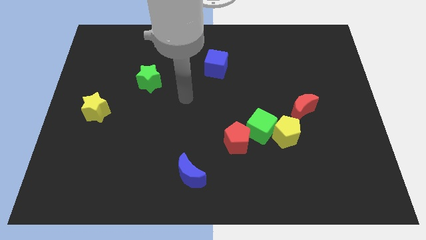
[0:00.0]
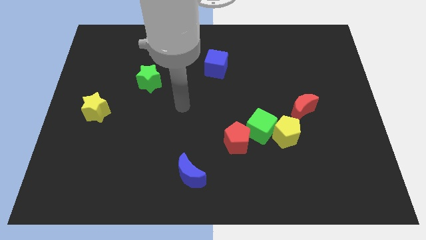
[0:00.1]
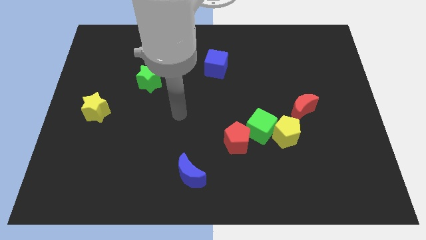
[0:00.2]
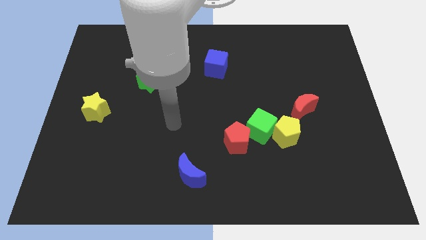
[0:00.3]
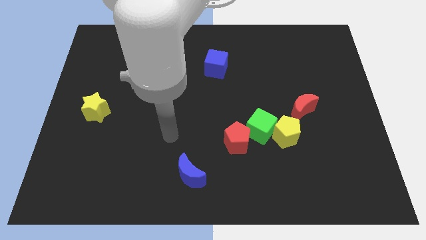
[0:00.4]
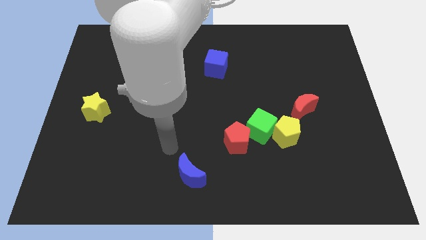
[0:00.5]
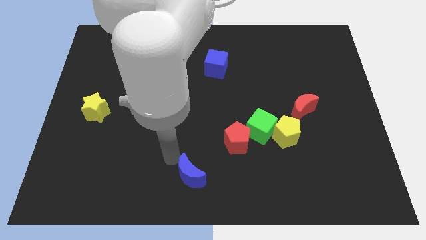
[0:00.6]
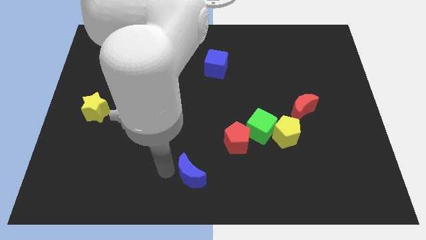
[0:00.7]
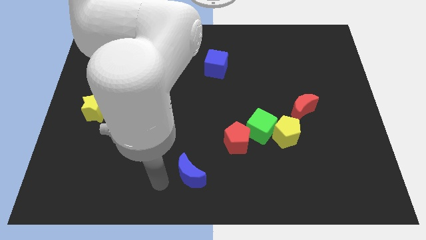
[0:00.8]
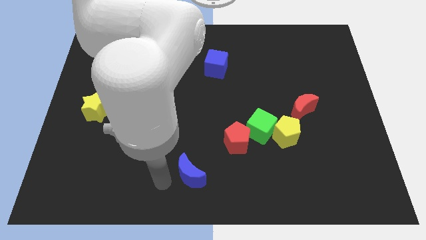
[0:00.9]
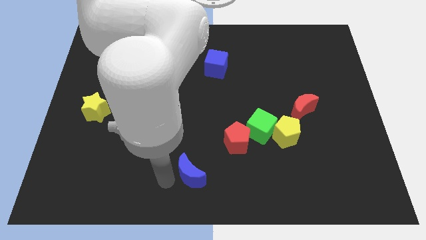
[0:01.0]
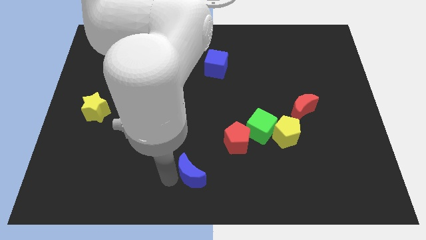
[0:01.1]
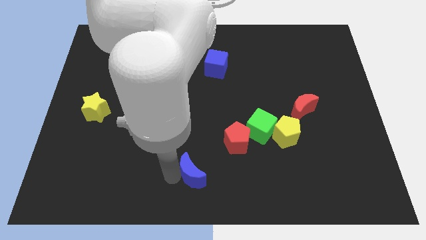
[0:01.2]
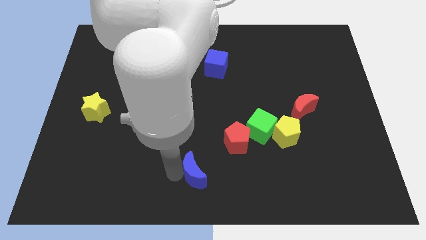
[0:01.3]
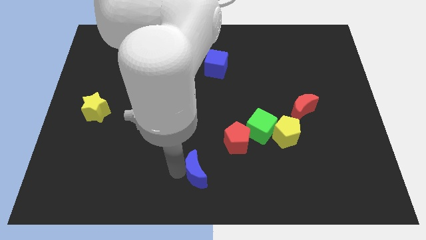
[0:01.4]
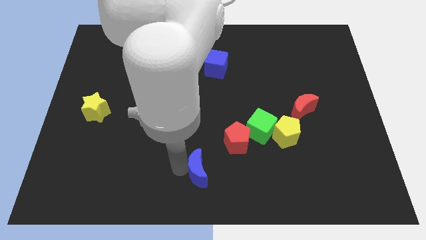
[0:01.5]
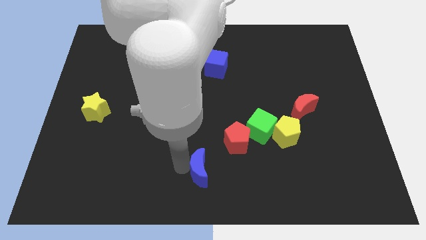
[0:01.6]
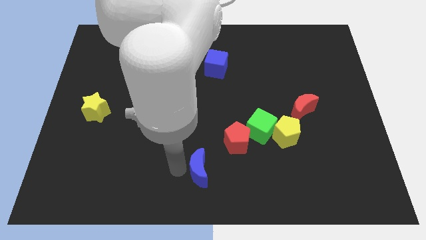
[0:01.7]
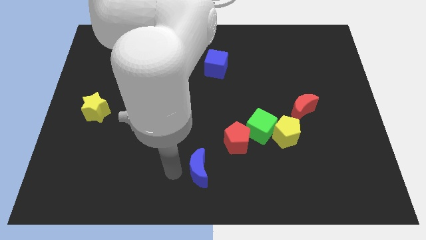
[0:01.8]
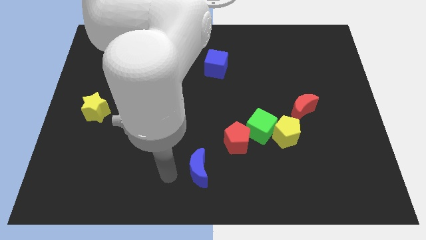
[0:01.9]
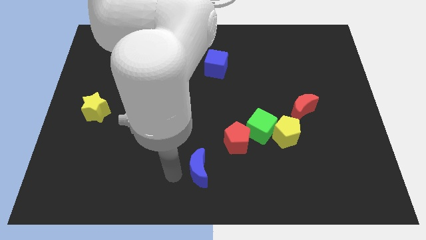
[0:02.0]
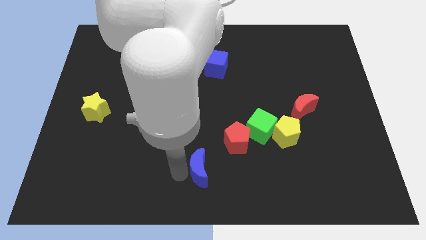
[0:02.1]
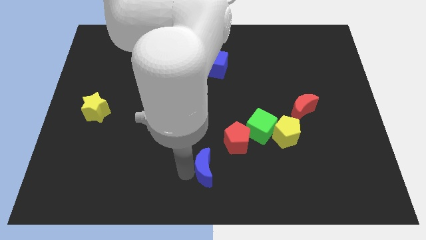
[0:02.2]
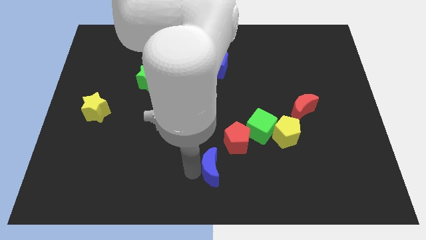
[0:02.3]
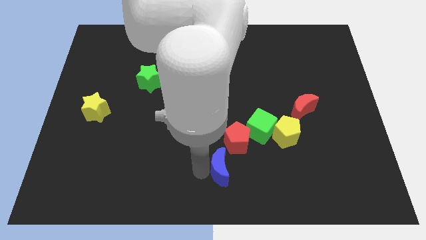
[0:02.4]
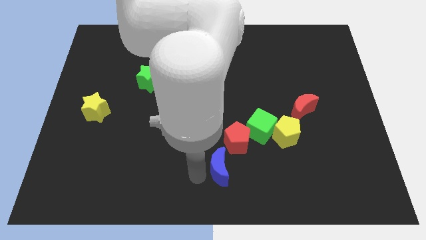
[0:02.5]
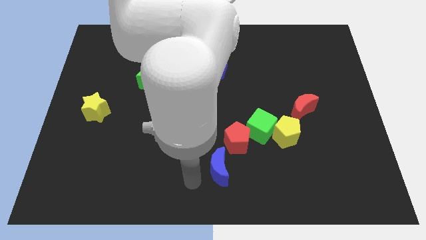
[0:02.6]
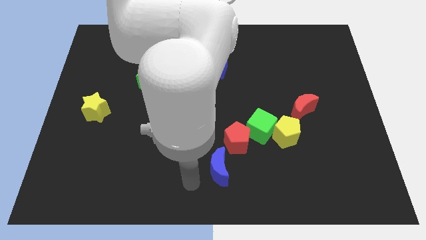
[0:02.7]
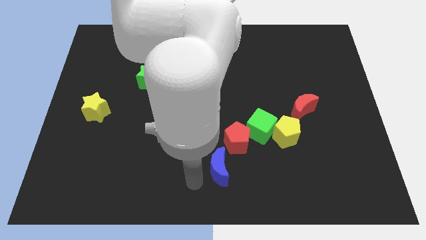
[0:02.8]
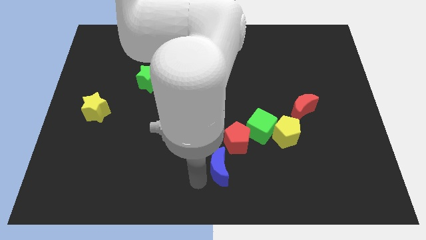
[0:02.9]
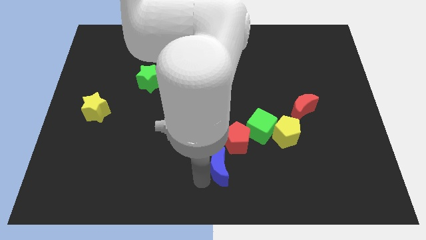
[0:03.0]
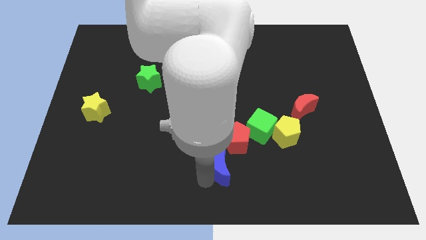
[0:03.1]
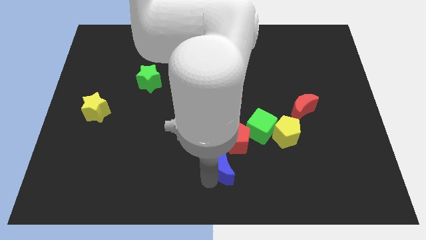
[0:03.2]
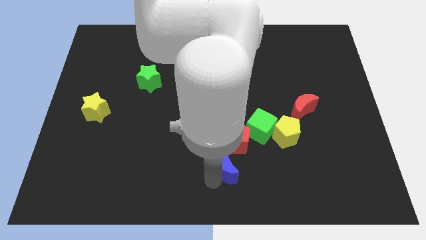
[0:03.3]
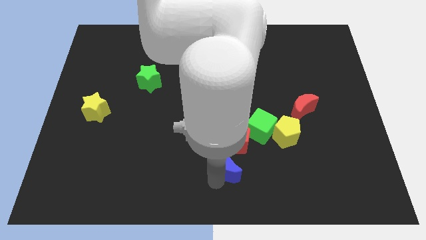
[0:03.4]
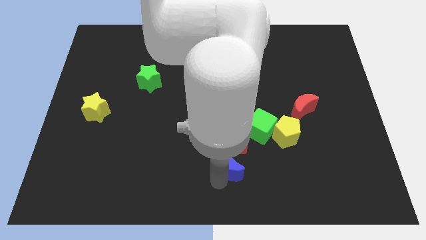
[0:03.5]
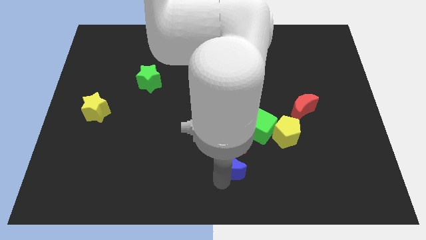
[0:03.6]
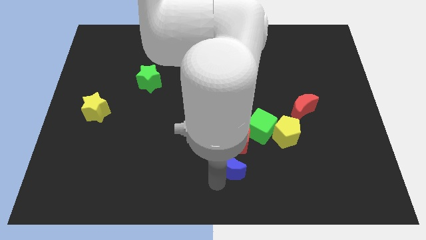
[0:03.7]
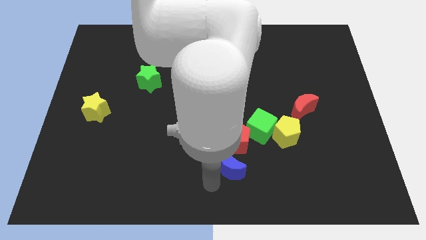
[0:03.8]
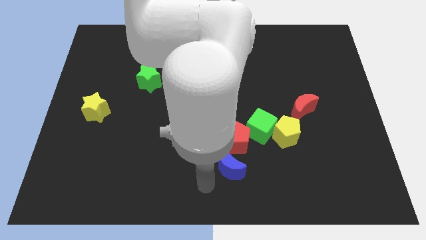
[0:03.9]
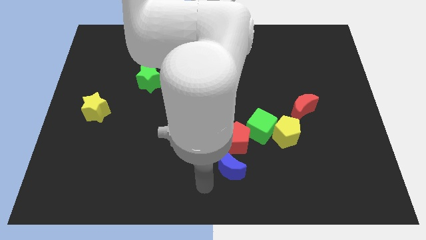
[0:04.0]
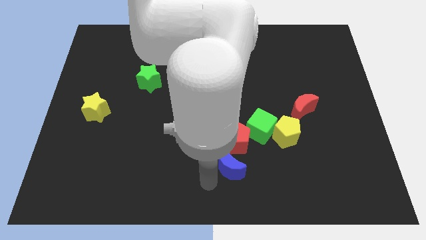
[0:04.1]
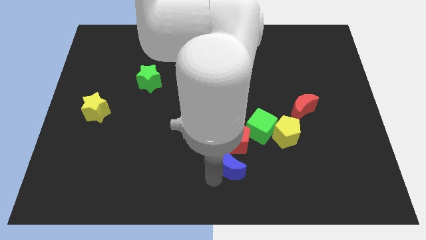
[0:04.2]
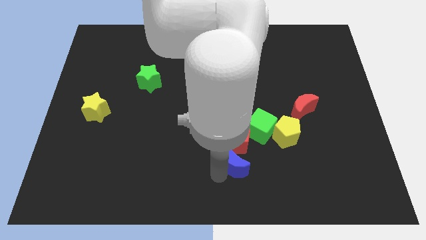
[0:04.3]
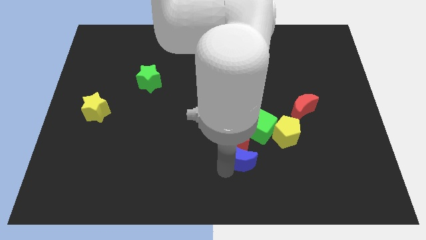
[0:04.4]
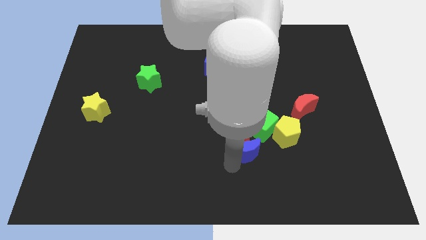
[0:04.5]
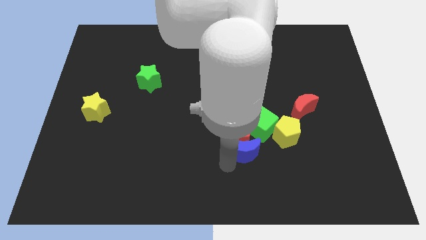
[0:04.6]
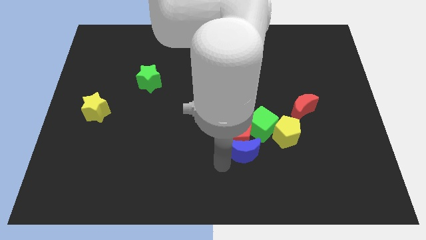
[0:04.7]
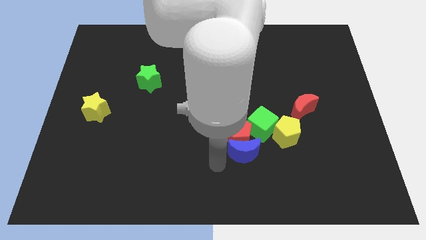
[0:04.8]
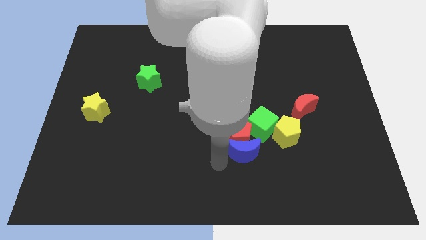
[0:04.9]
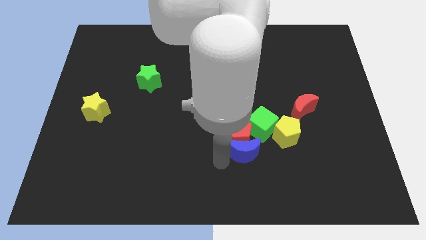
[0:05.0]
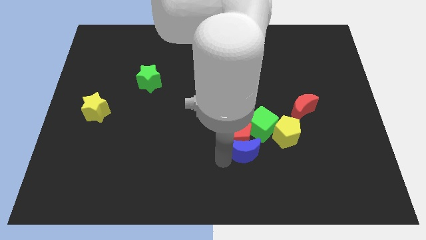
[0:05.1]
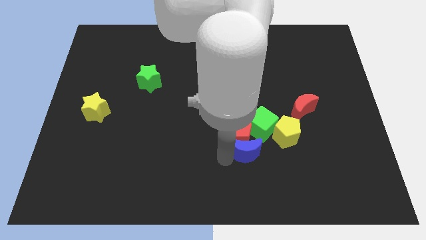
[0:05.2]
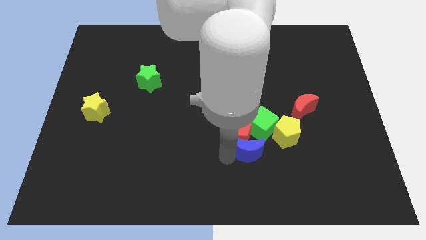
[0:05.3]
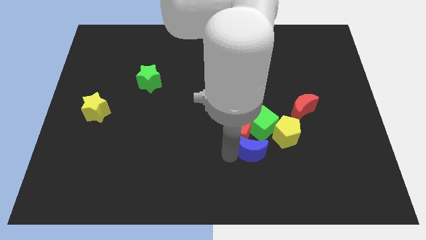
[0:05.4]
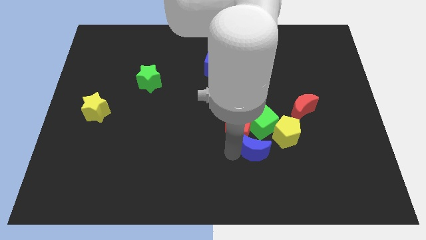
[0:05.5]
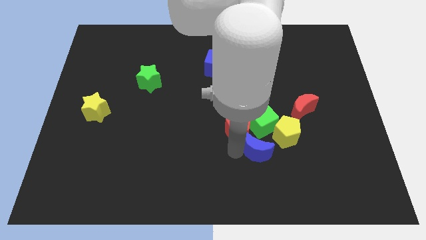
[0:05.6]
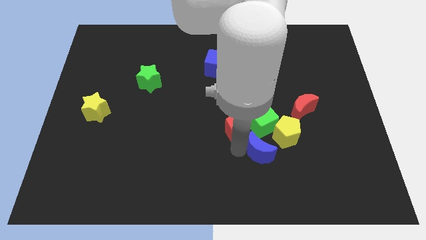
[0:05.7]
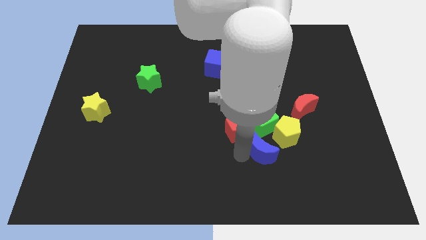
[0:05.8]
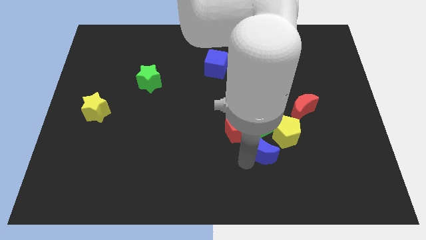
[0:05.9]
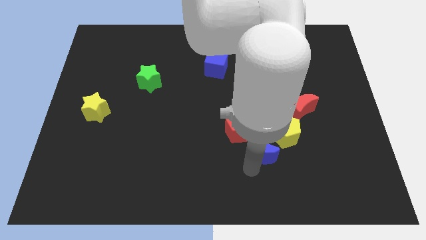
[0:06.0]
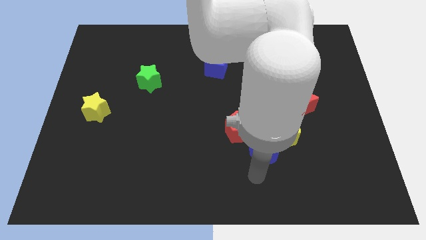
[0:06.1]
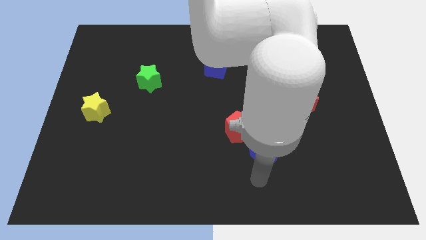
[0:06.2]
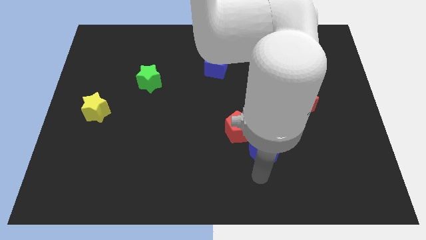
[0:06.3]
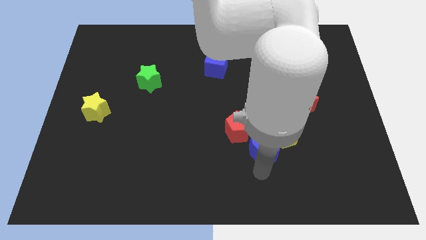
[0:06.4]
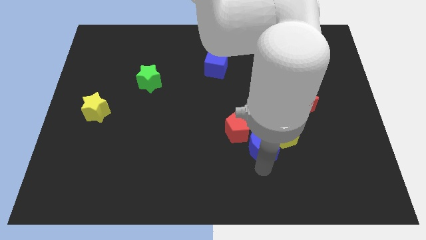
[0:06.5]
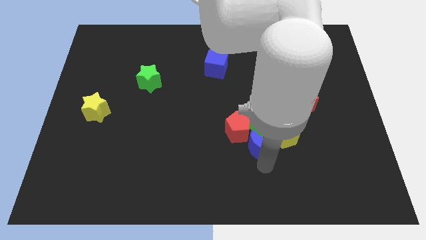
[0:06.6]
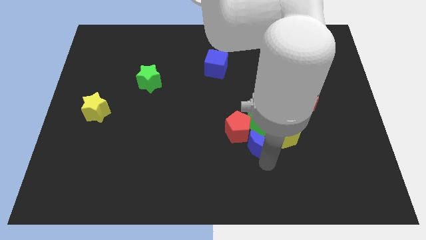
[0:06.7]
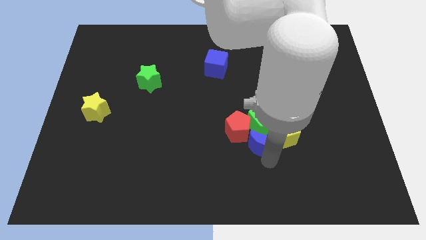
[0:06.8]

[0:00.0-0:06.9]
push the blue moon next to the green cube
